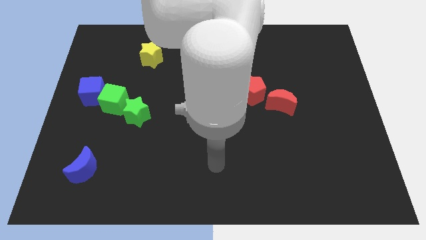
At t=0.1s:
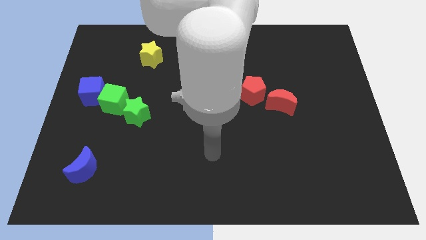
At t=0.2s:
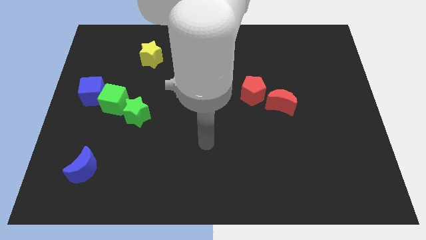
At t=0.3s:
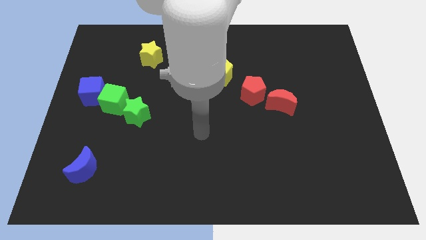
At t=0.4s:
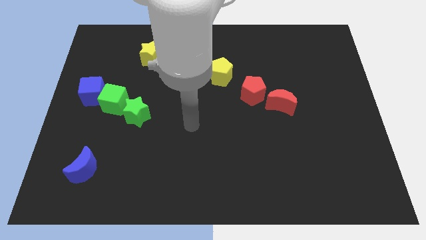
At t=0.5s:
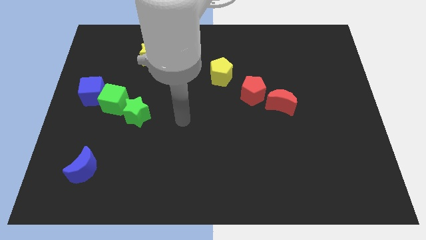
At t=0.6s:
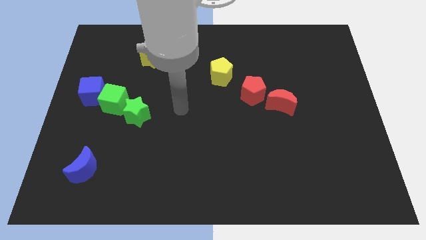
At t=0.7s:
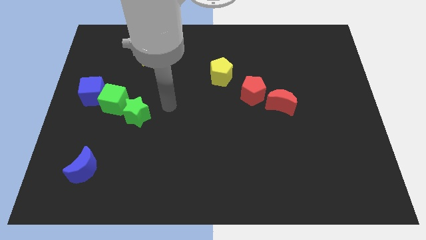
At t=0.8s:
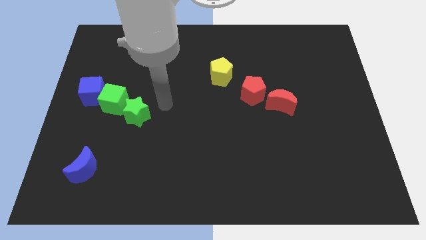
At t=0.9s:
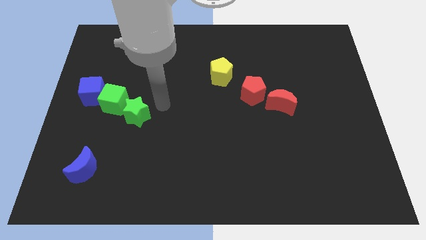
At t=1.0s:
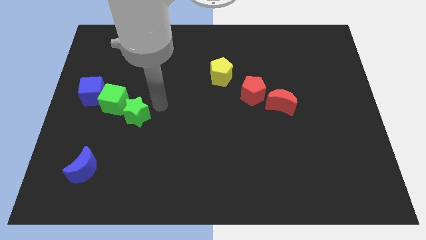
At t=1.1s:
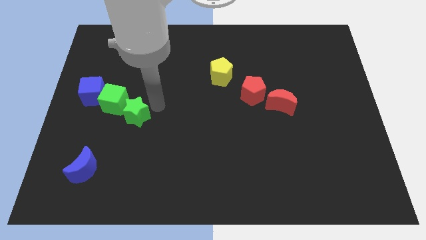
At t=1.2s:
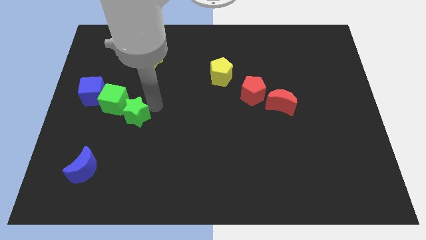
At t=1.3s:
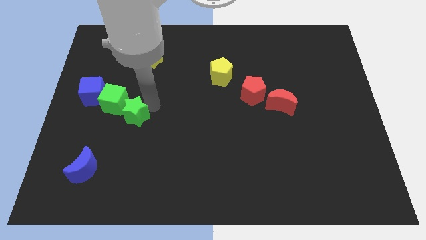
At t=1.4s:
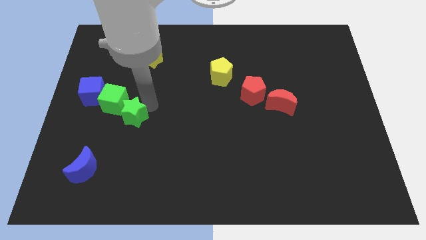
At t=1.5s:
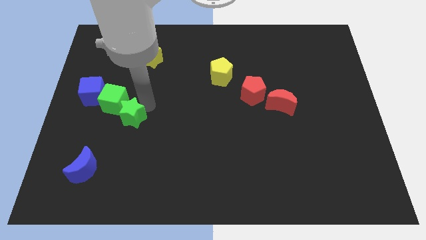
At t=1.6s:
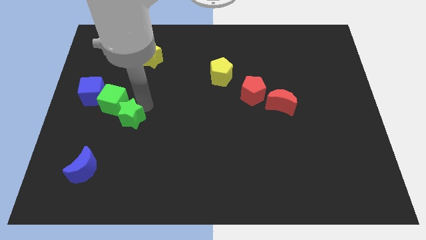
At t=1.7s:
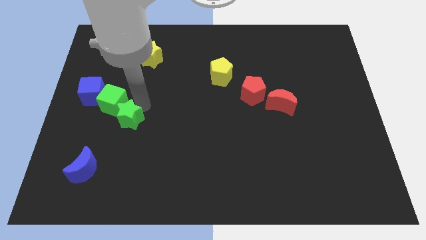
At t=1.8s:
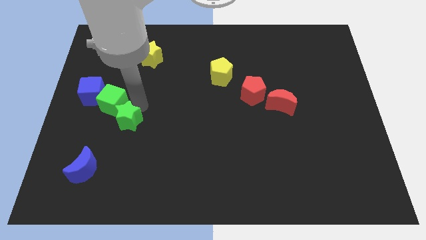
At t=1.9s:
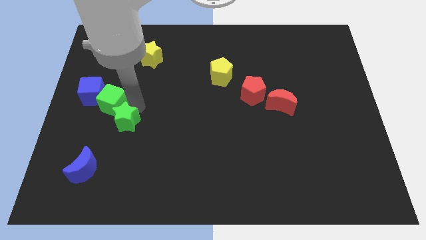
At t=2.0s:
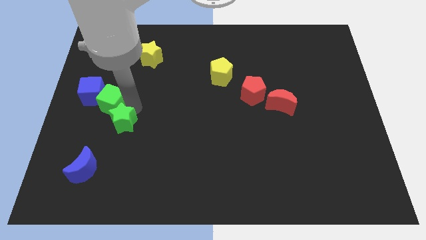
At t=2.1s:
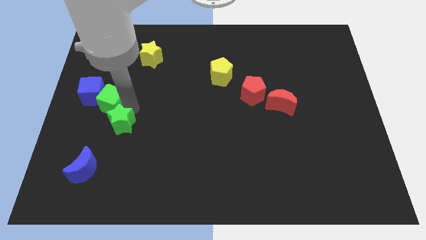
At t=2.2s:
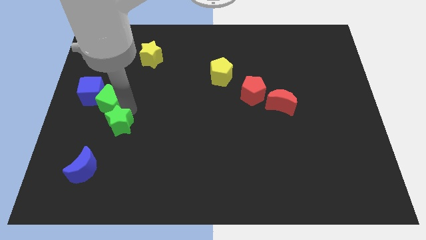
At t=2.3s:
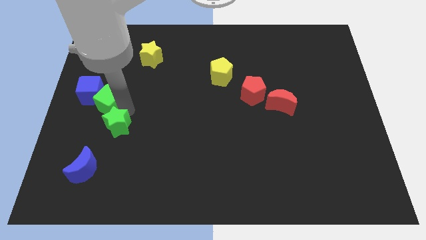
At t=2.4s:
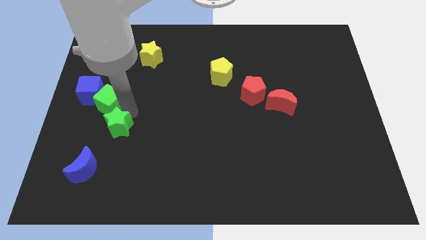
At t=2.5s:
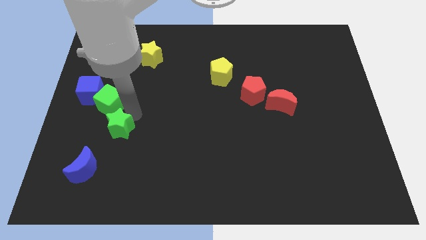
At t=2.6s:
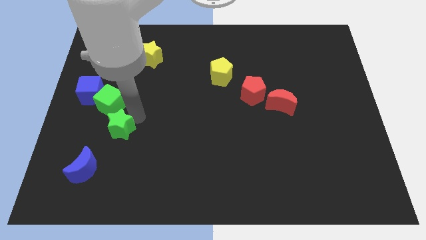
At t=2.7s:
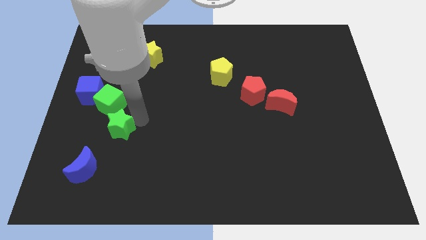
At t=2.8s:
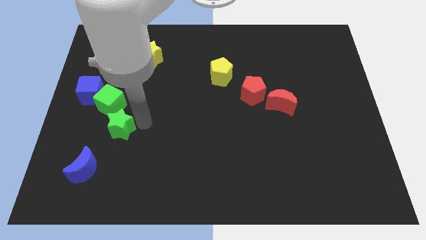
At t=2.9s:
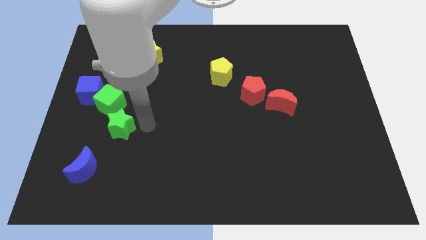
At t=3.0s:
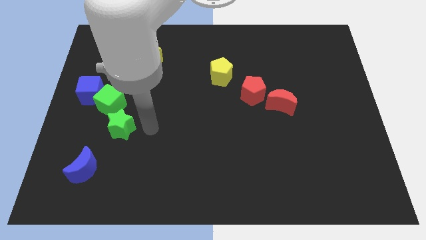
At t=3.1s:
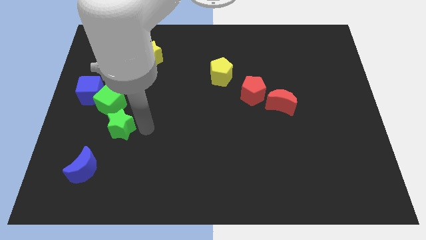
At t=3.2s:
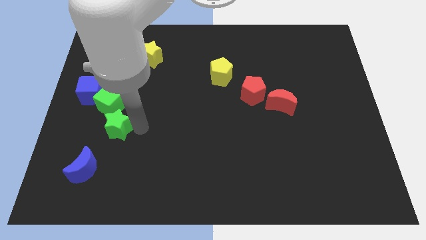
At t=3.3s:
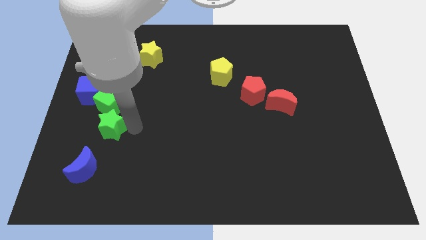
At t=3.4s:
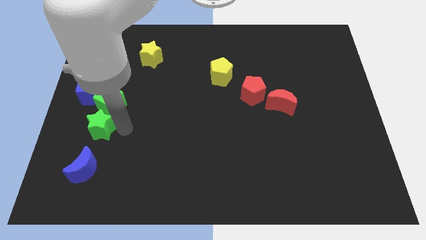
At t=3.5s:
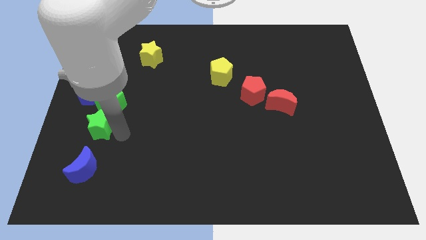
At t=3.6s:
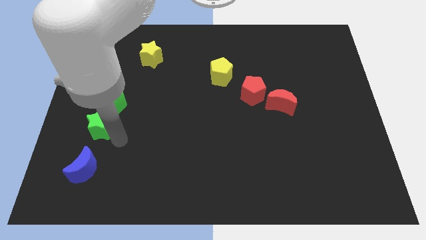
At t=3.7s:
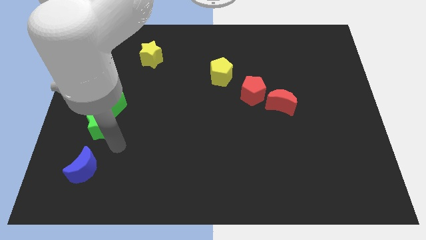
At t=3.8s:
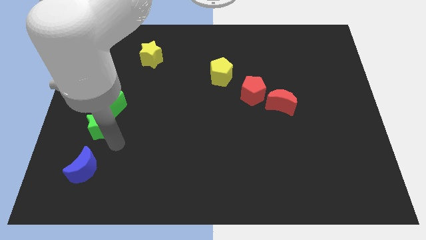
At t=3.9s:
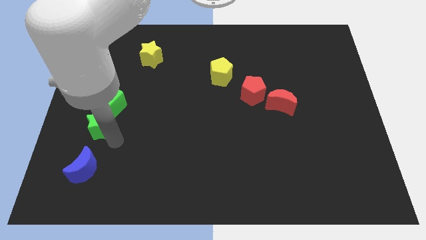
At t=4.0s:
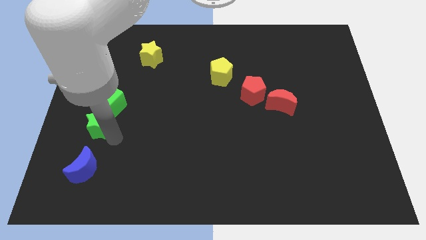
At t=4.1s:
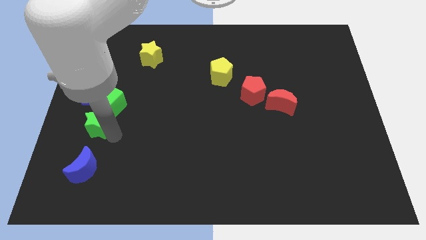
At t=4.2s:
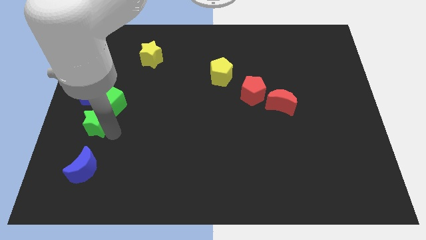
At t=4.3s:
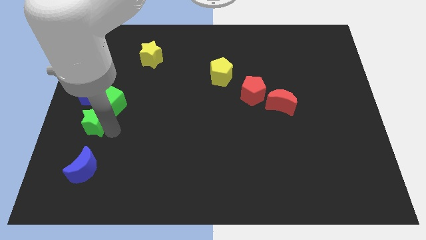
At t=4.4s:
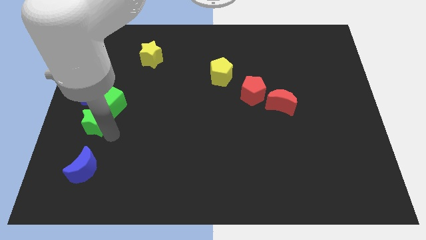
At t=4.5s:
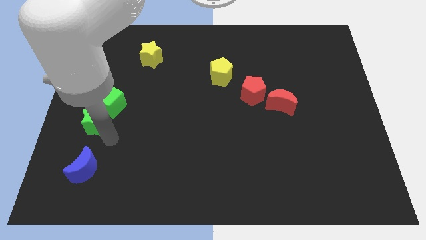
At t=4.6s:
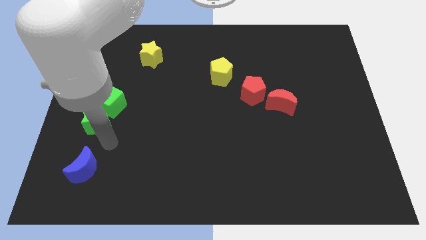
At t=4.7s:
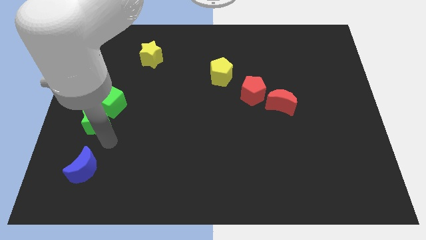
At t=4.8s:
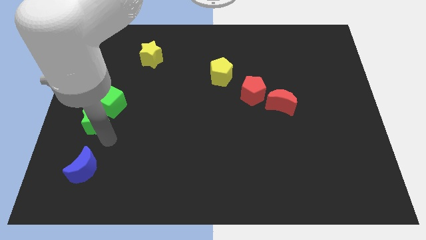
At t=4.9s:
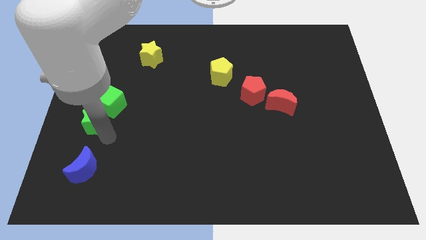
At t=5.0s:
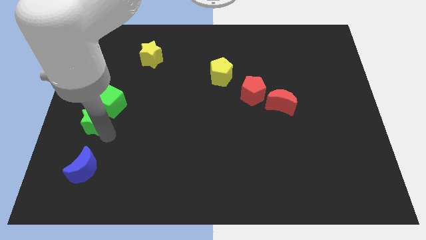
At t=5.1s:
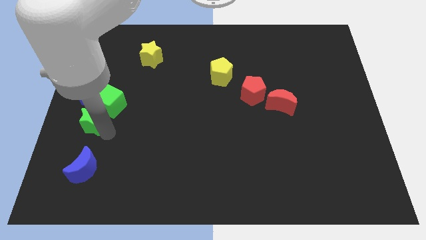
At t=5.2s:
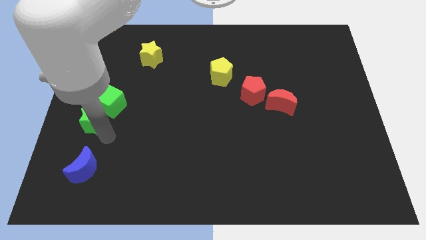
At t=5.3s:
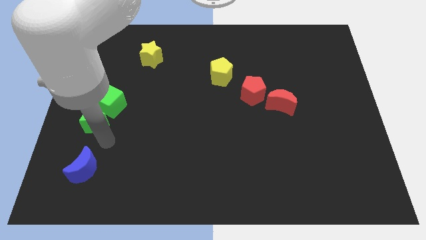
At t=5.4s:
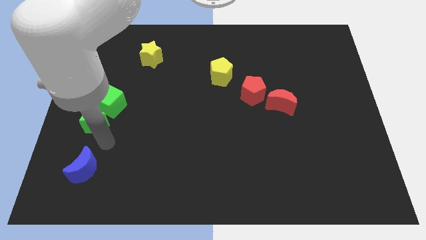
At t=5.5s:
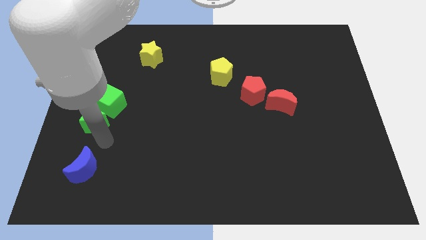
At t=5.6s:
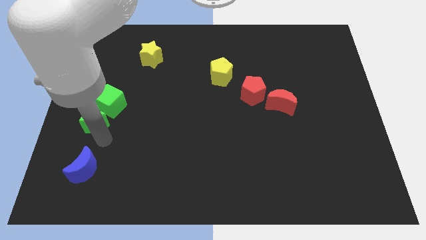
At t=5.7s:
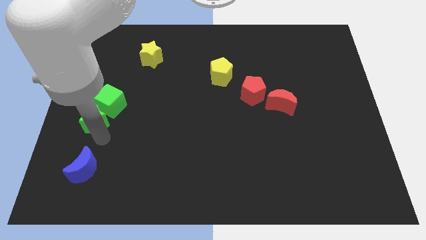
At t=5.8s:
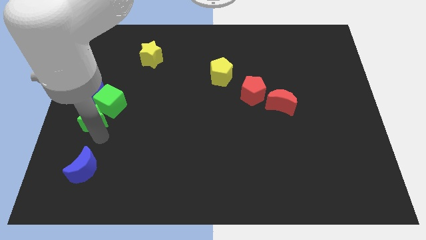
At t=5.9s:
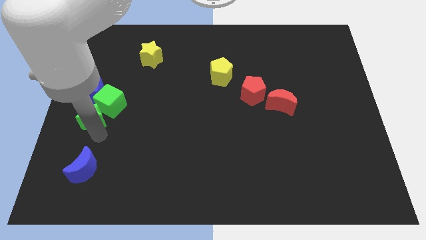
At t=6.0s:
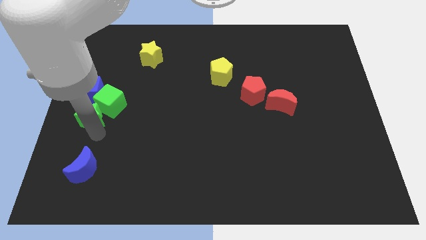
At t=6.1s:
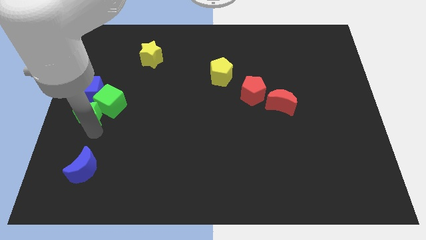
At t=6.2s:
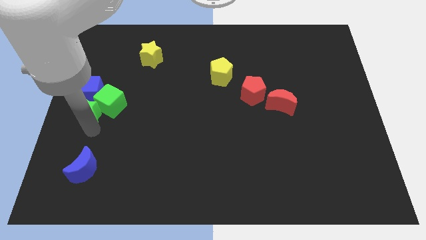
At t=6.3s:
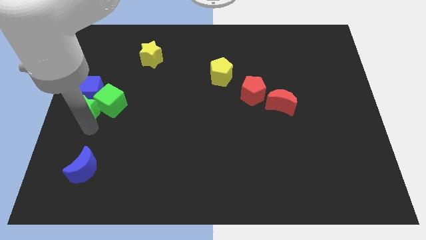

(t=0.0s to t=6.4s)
move the green star towards the blue cube

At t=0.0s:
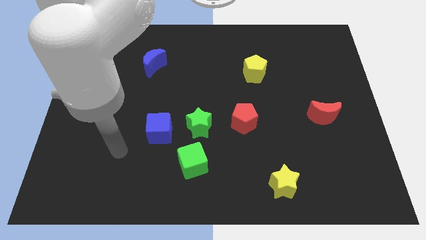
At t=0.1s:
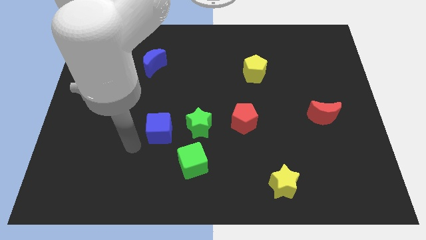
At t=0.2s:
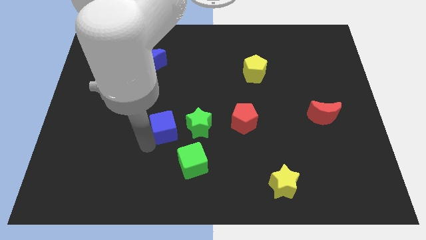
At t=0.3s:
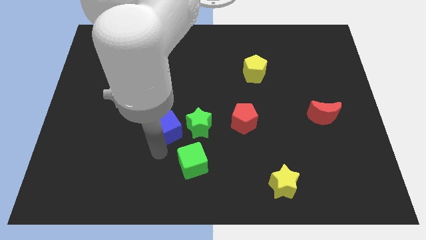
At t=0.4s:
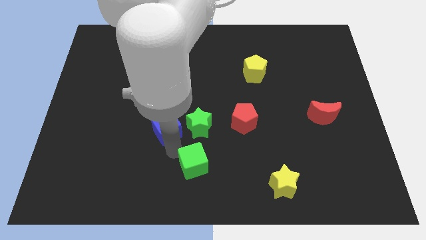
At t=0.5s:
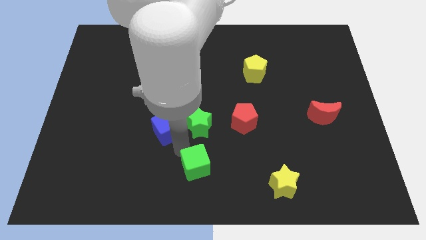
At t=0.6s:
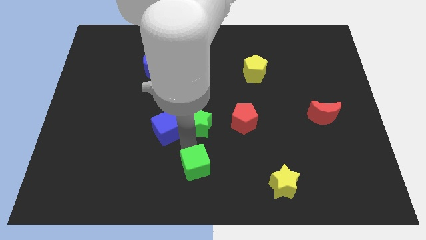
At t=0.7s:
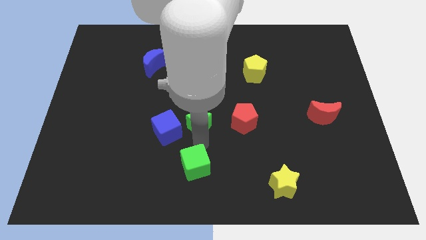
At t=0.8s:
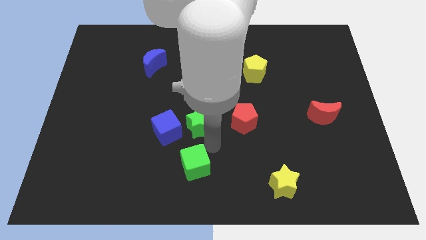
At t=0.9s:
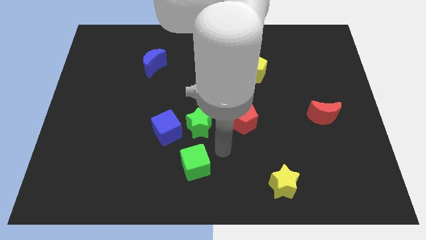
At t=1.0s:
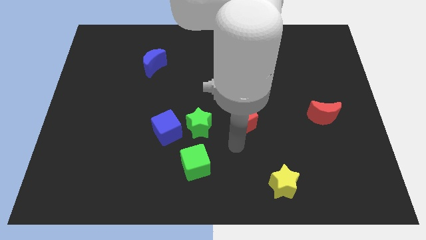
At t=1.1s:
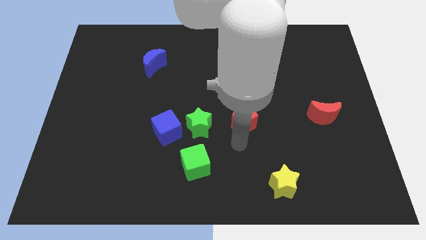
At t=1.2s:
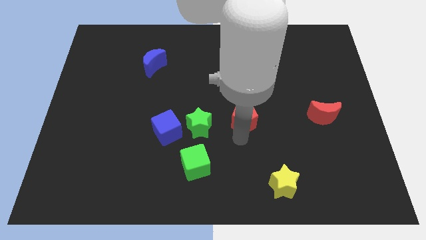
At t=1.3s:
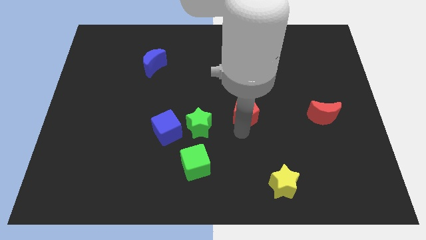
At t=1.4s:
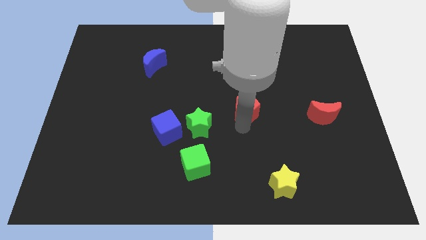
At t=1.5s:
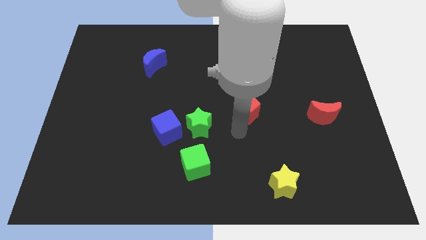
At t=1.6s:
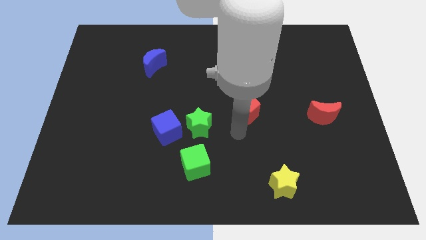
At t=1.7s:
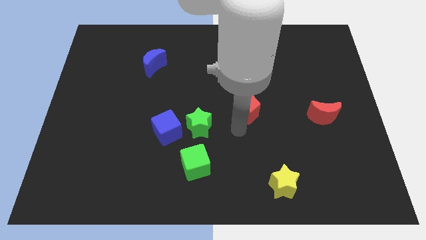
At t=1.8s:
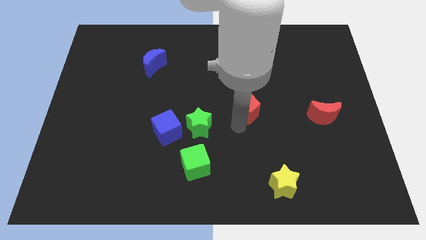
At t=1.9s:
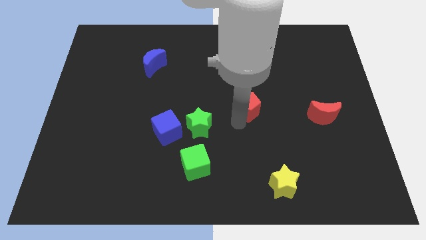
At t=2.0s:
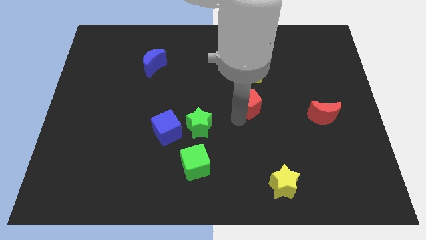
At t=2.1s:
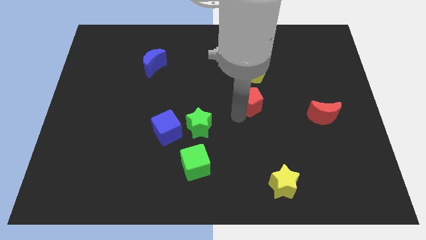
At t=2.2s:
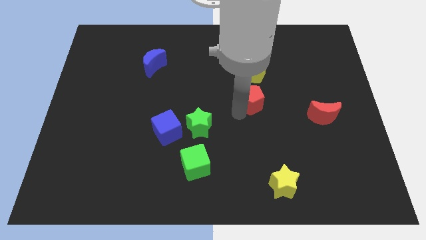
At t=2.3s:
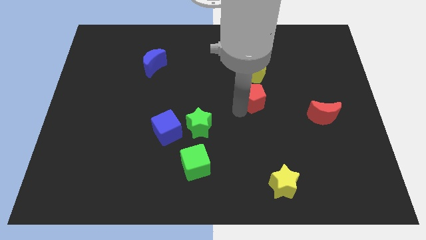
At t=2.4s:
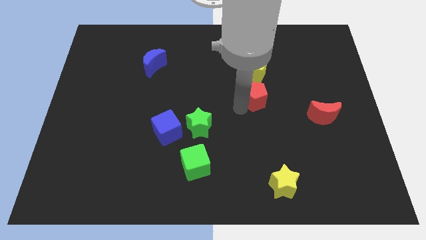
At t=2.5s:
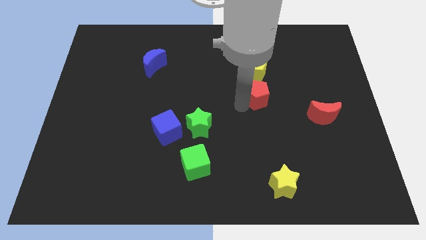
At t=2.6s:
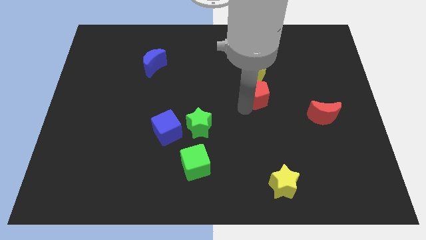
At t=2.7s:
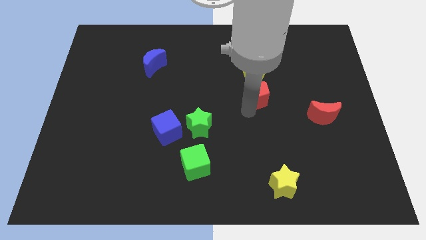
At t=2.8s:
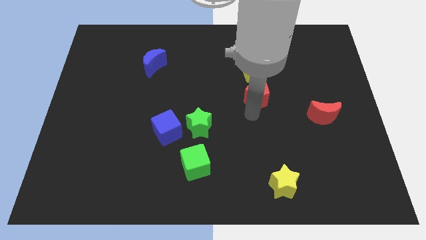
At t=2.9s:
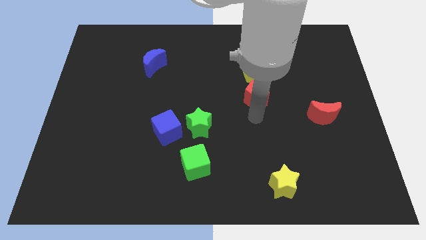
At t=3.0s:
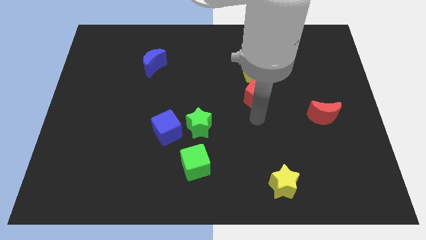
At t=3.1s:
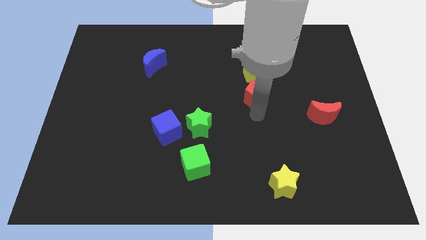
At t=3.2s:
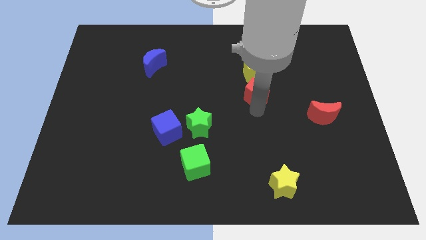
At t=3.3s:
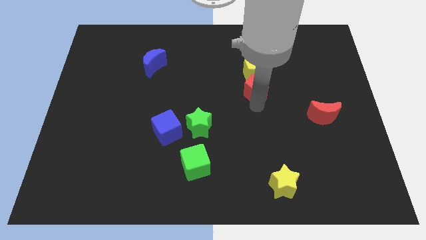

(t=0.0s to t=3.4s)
move the red pentagon towards the yellow pentagon
